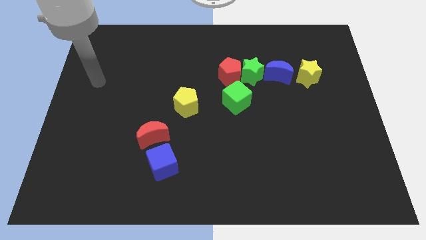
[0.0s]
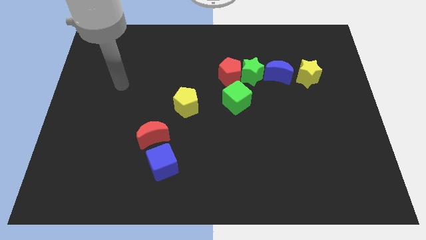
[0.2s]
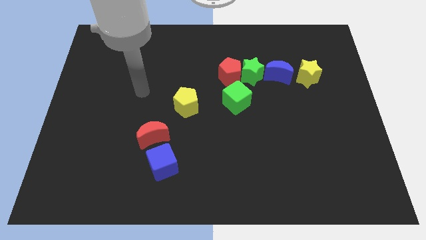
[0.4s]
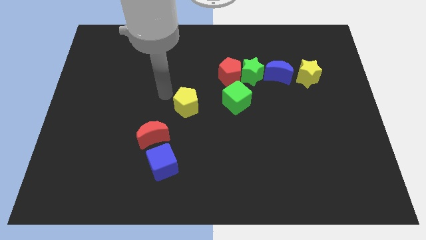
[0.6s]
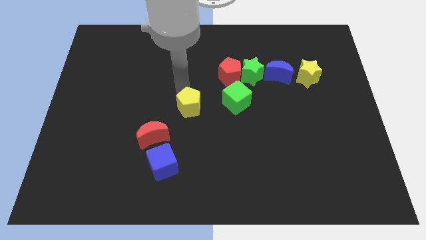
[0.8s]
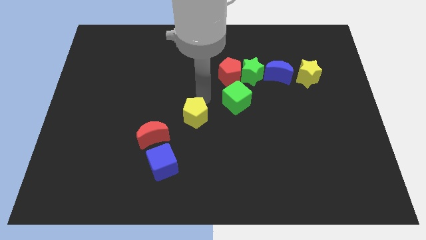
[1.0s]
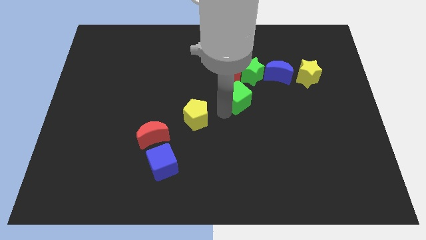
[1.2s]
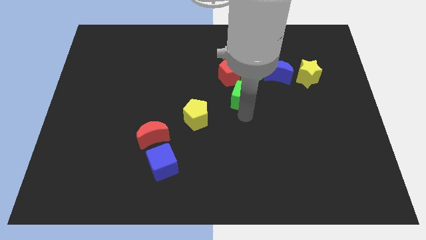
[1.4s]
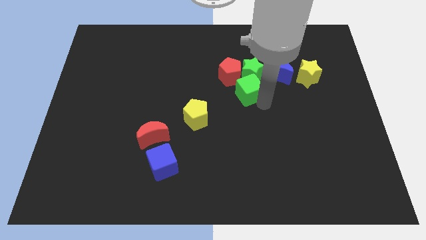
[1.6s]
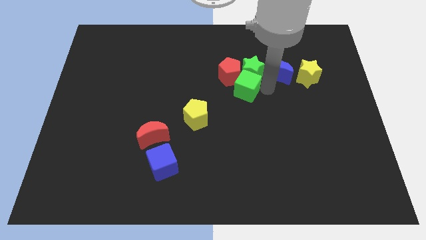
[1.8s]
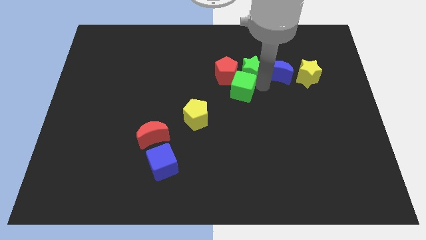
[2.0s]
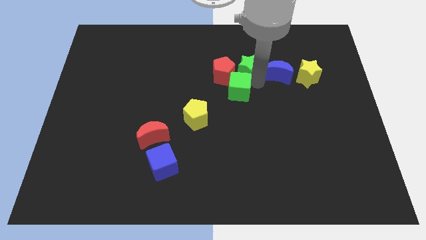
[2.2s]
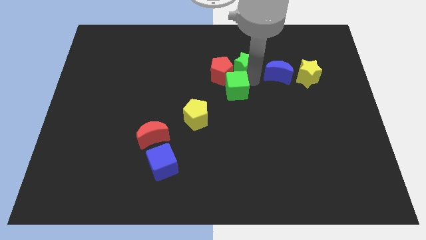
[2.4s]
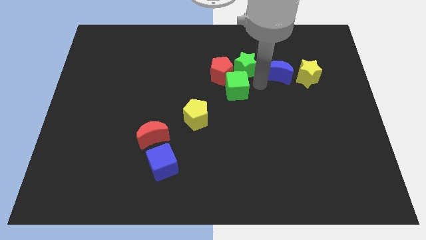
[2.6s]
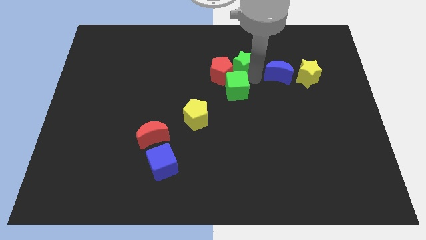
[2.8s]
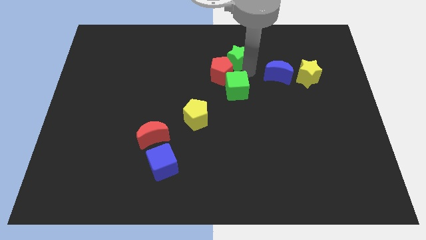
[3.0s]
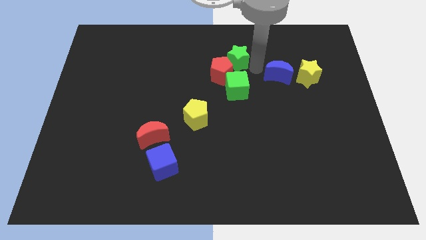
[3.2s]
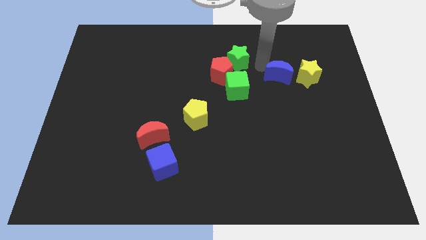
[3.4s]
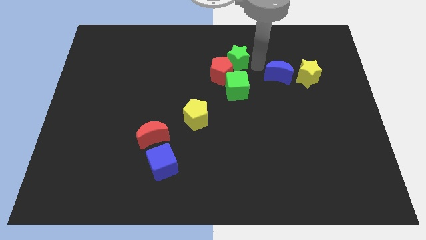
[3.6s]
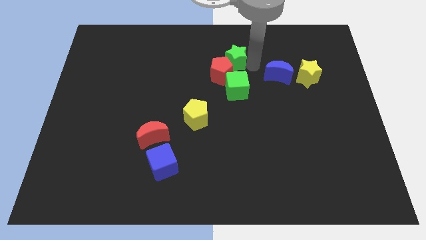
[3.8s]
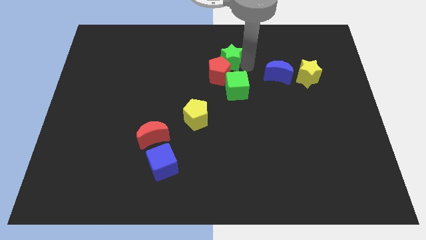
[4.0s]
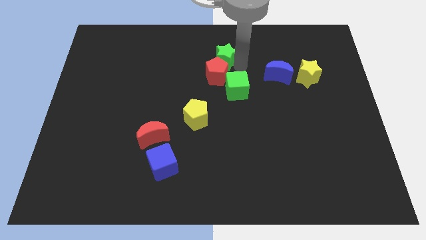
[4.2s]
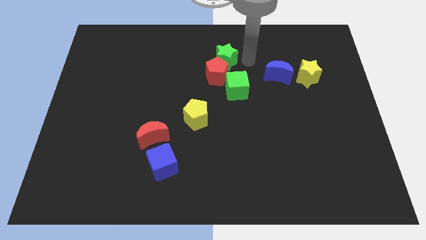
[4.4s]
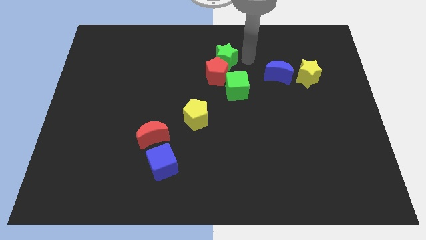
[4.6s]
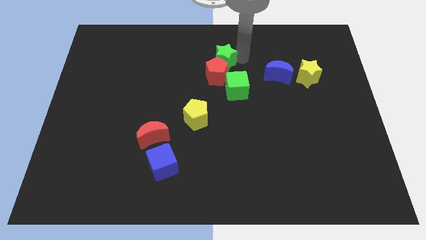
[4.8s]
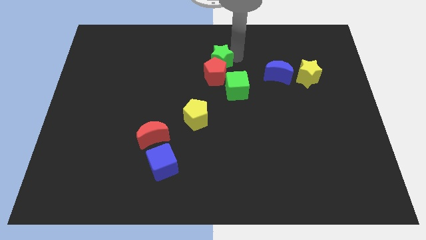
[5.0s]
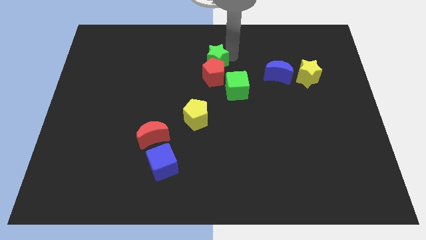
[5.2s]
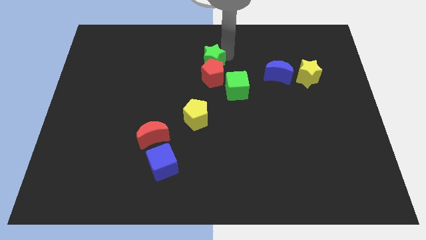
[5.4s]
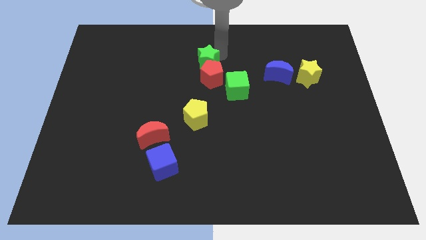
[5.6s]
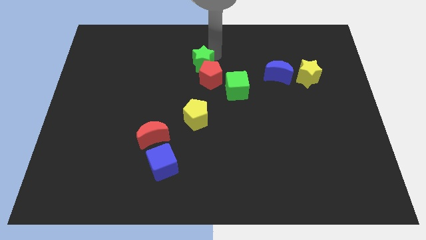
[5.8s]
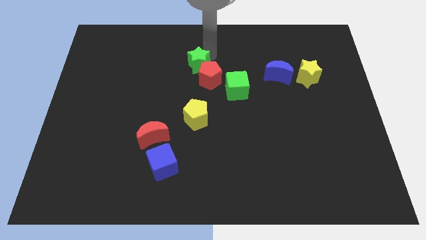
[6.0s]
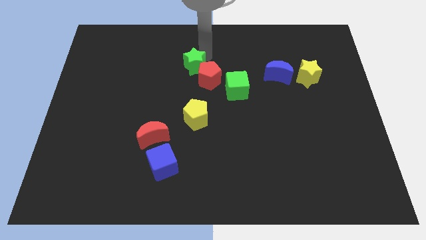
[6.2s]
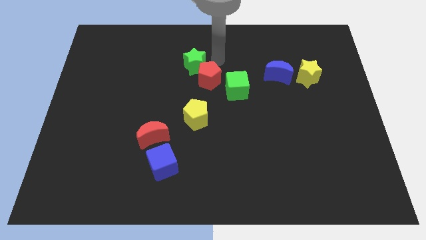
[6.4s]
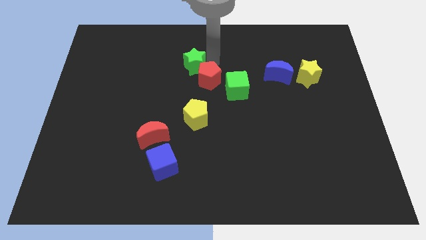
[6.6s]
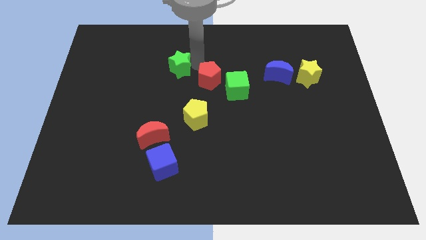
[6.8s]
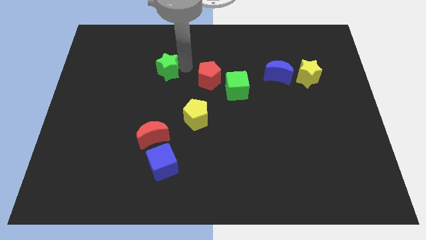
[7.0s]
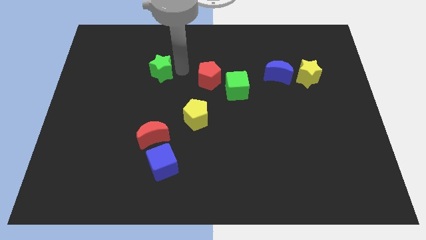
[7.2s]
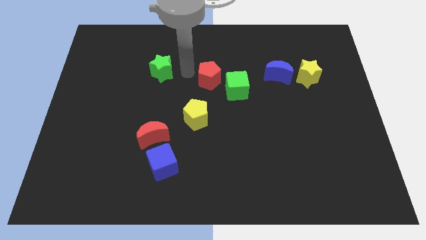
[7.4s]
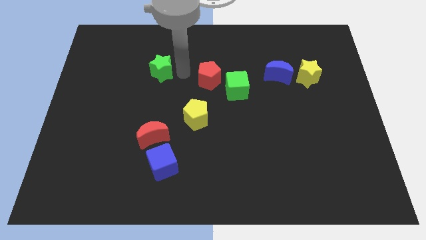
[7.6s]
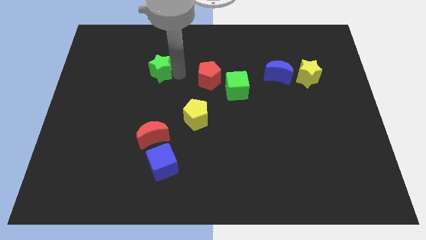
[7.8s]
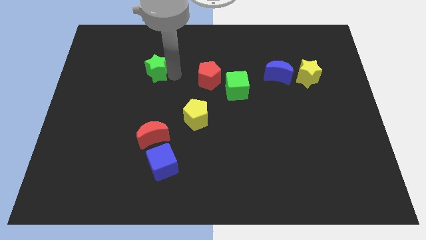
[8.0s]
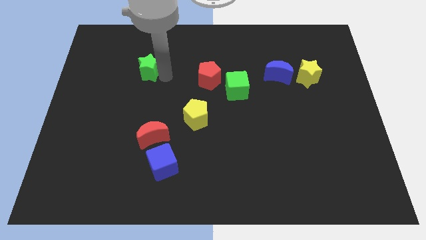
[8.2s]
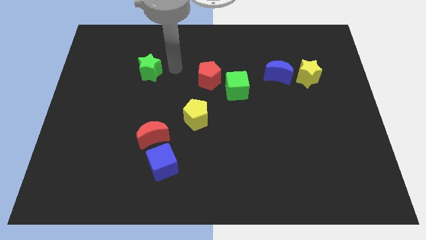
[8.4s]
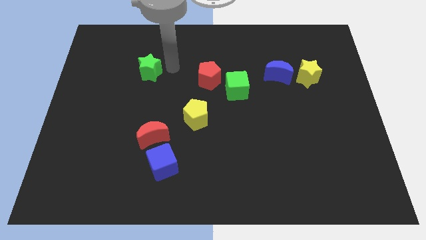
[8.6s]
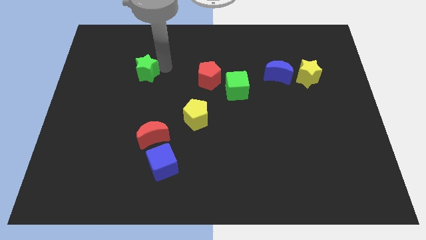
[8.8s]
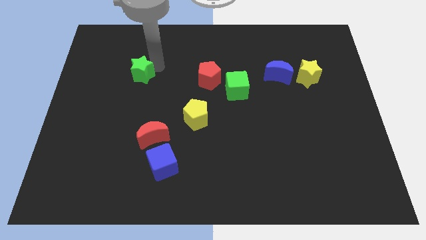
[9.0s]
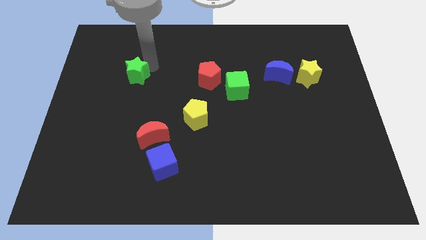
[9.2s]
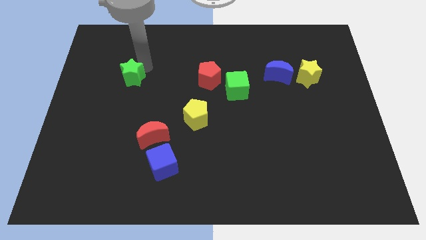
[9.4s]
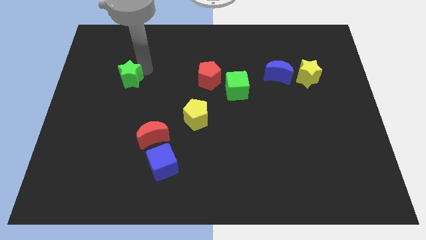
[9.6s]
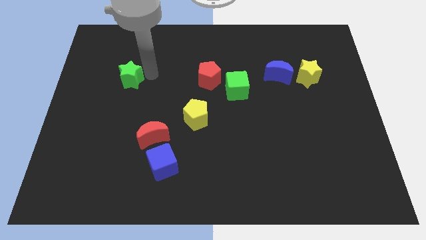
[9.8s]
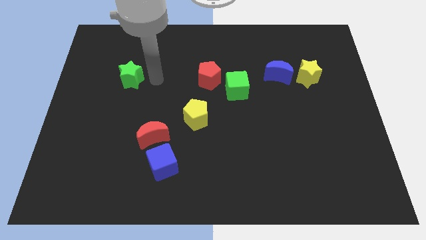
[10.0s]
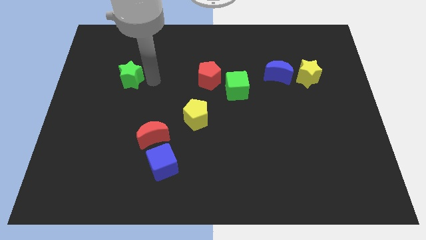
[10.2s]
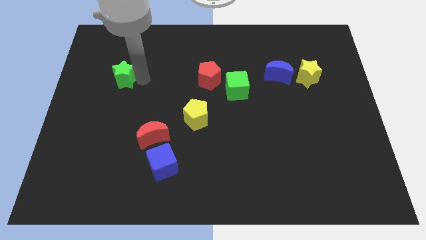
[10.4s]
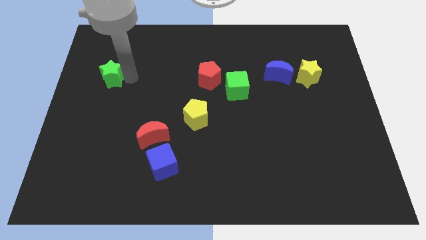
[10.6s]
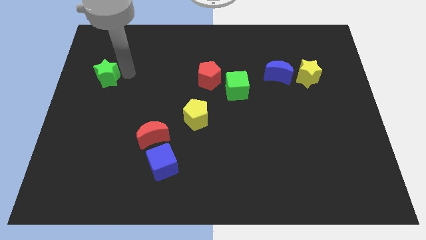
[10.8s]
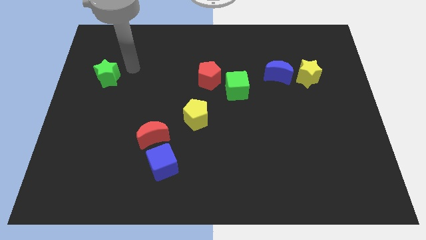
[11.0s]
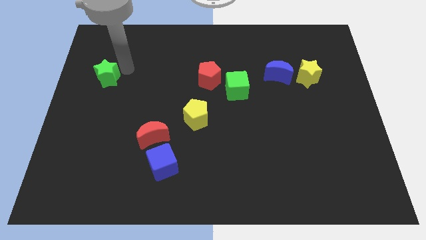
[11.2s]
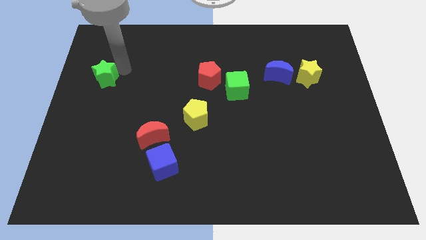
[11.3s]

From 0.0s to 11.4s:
put the green star to the left side
